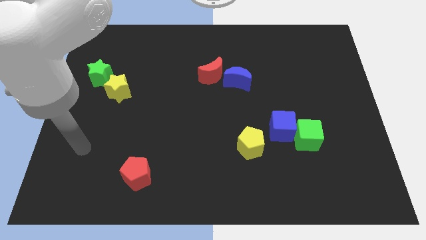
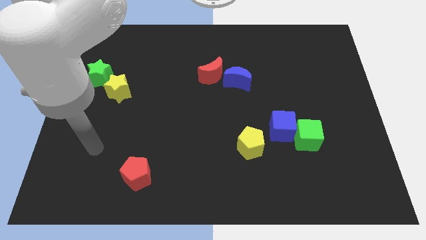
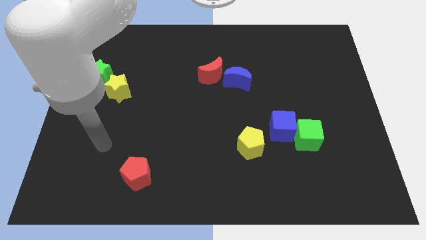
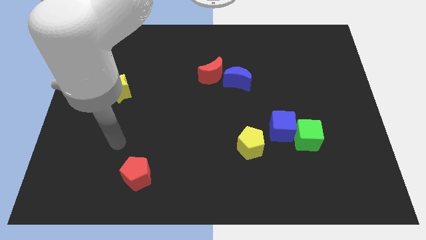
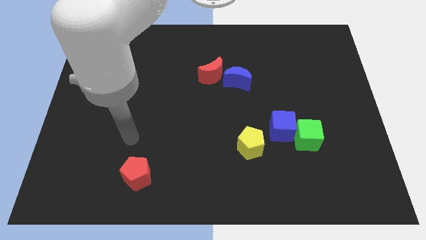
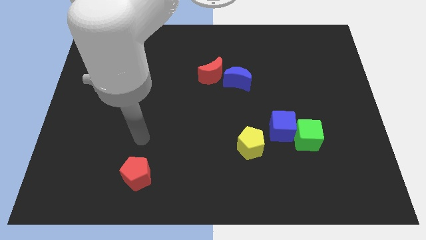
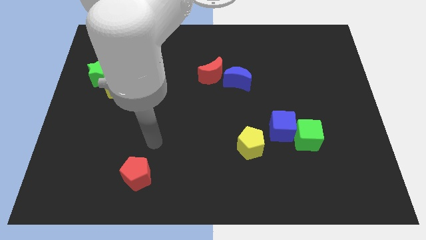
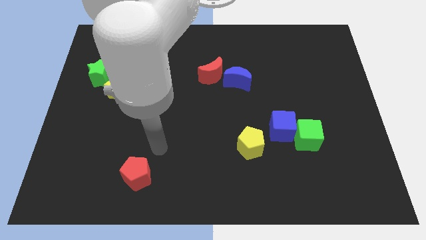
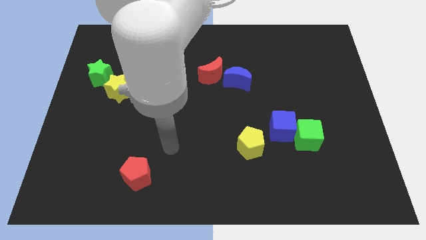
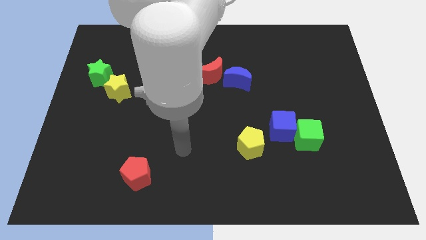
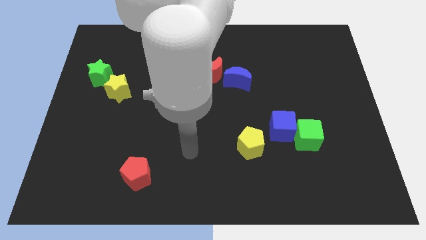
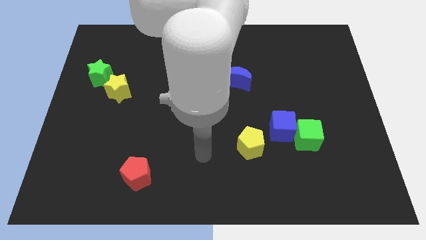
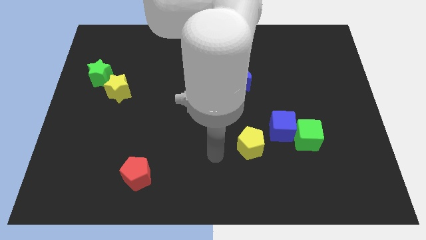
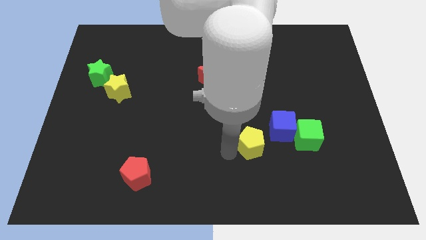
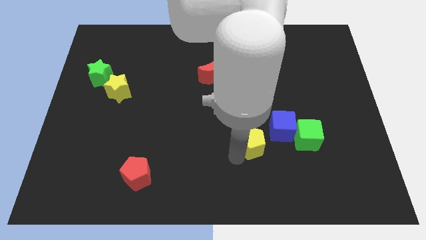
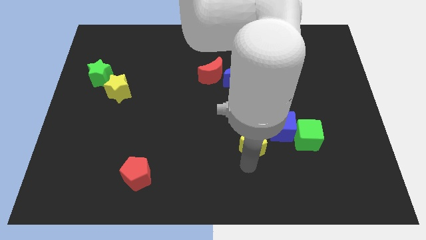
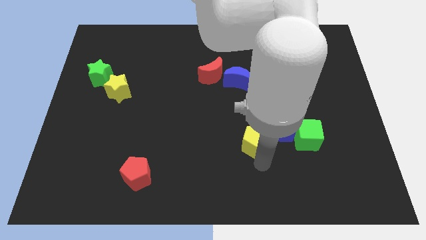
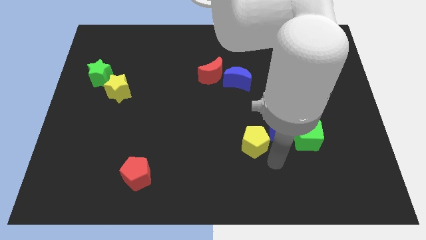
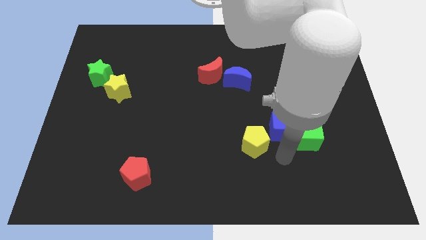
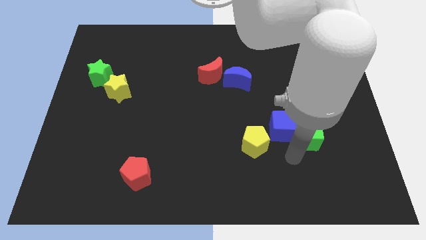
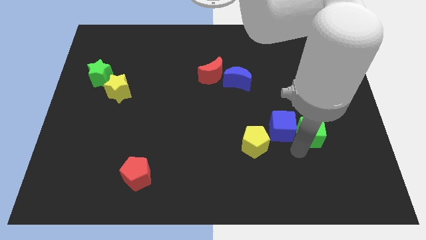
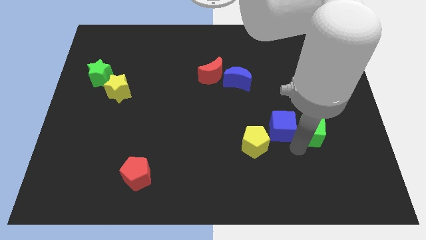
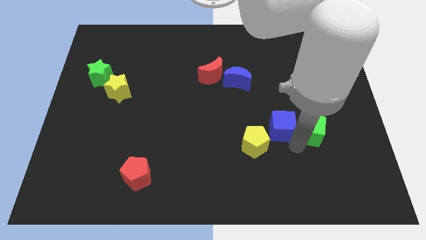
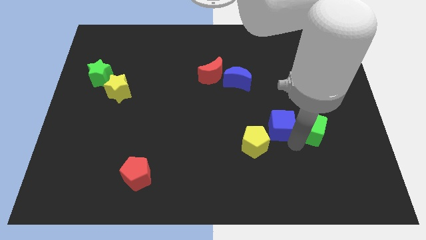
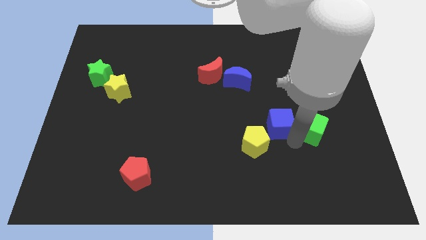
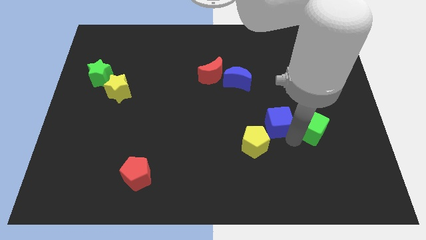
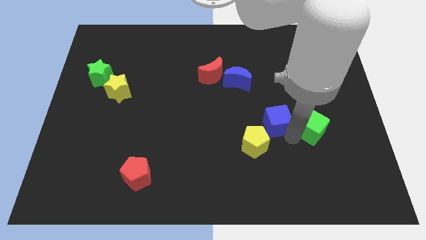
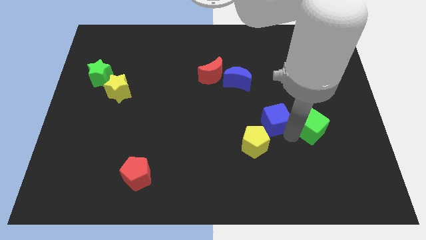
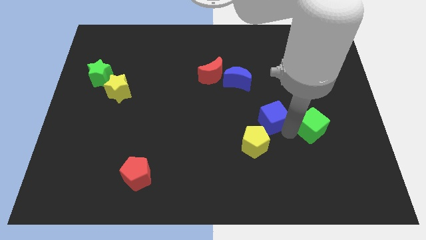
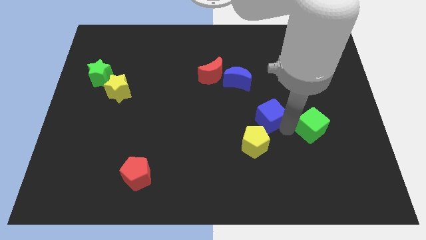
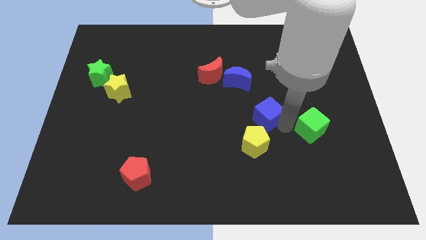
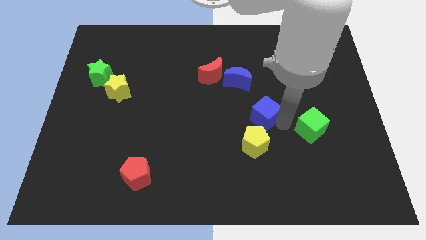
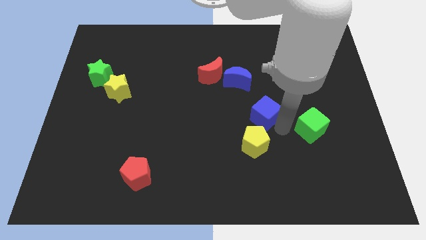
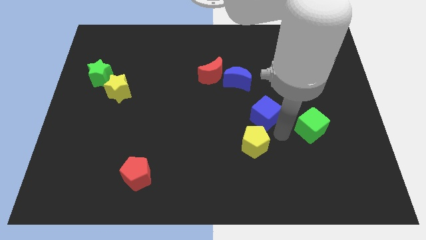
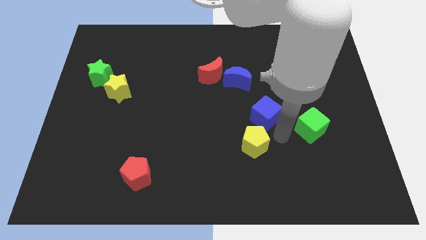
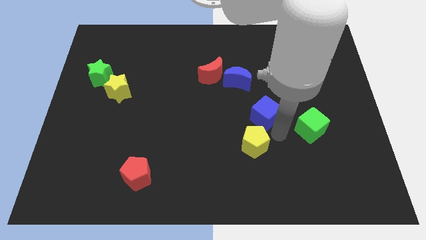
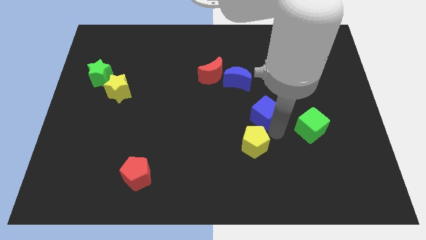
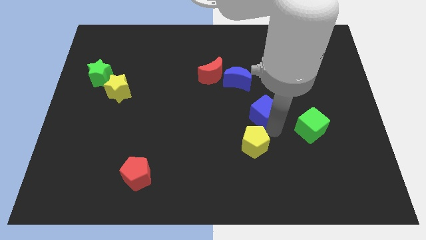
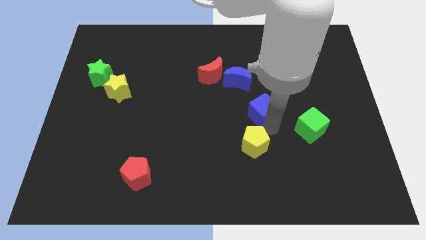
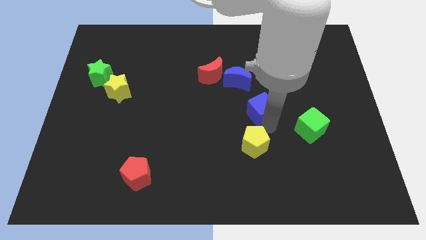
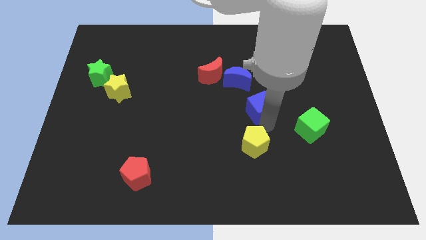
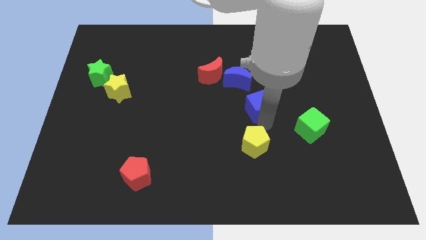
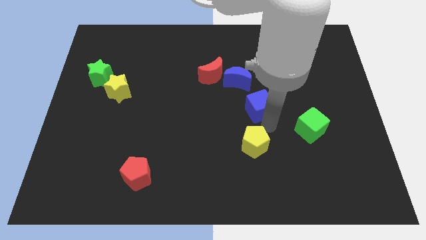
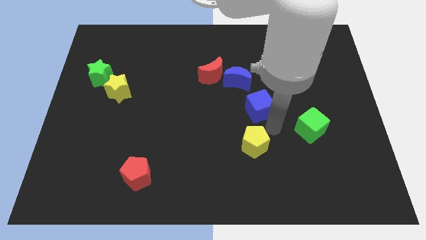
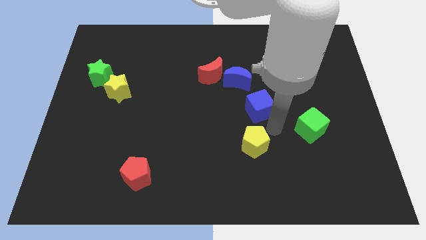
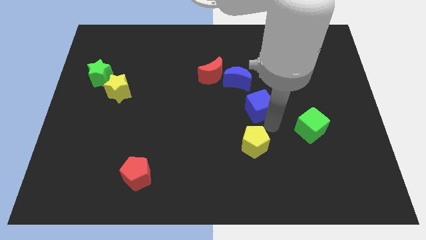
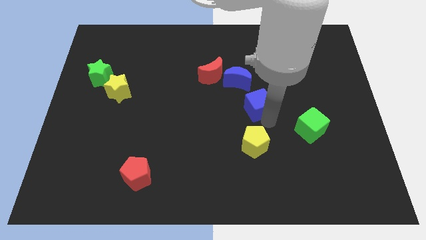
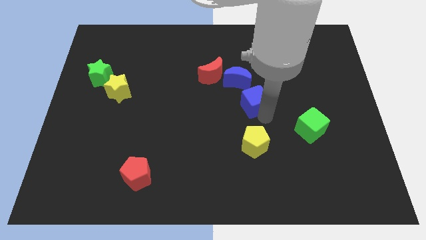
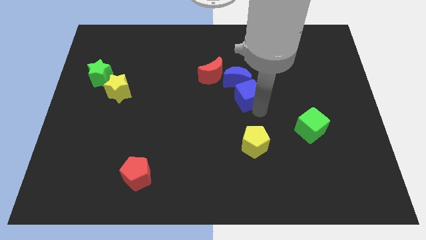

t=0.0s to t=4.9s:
push the blue cube next to the blue moon

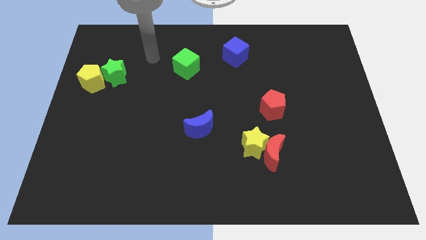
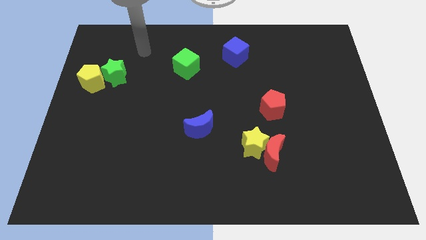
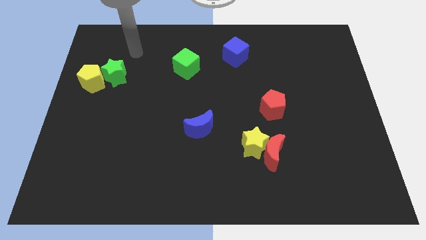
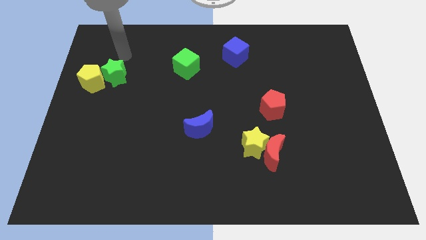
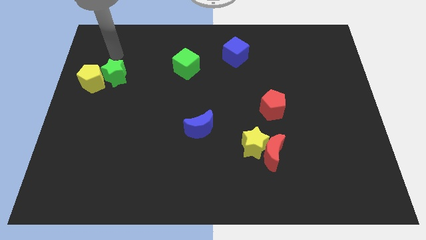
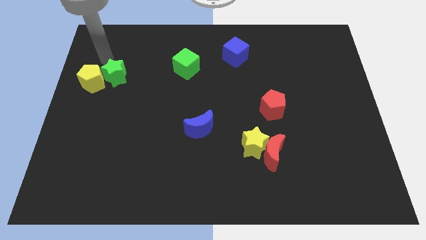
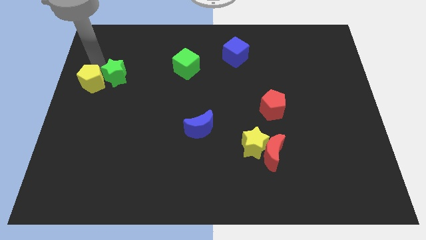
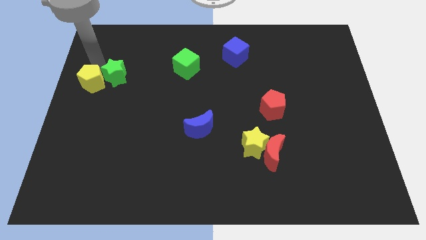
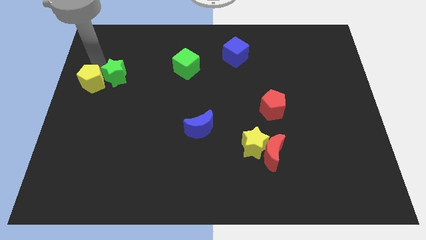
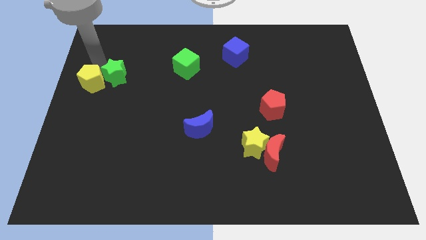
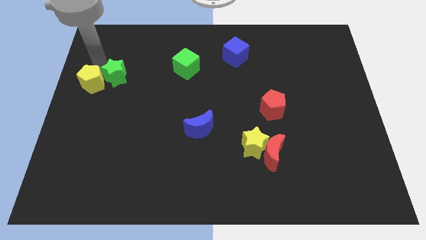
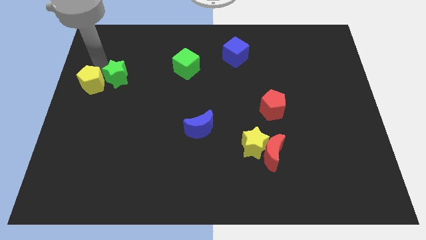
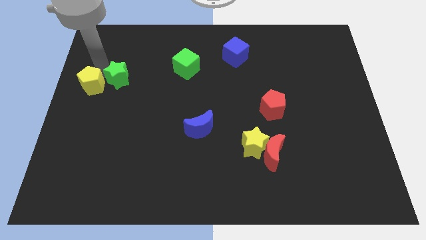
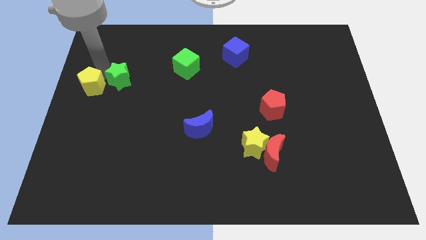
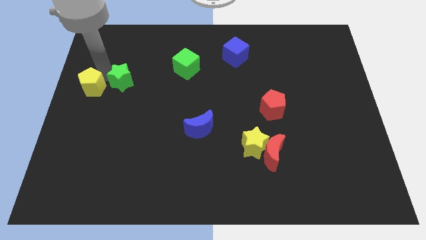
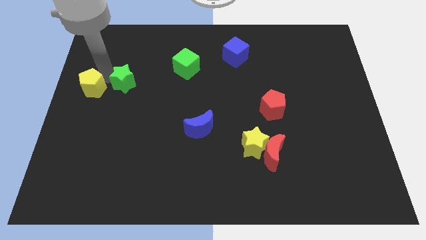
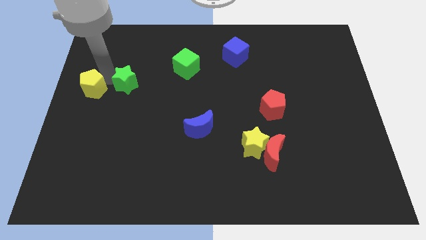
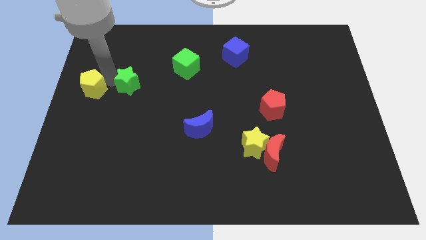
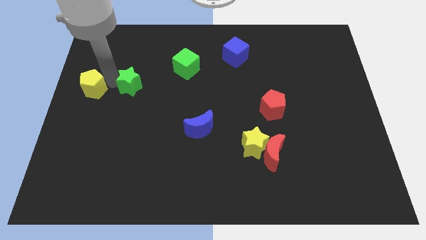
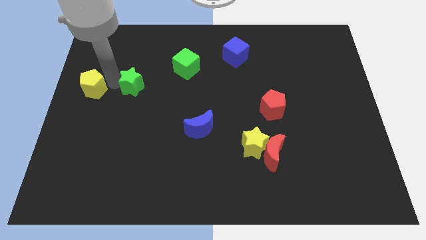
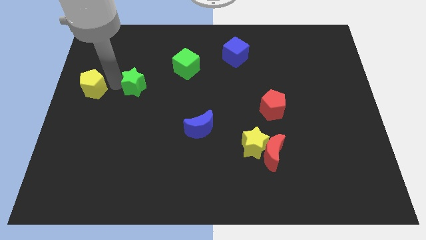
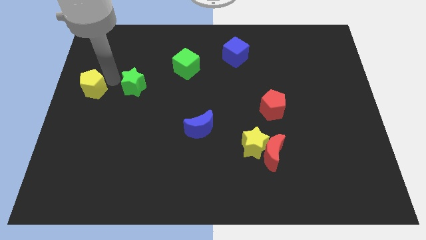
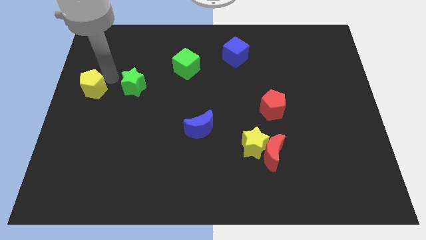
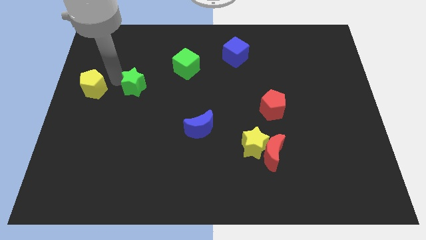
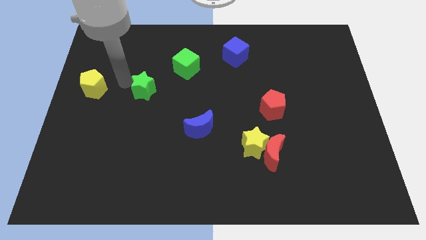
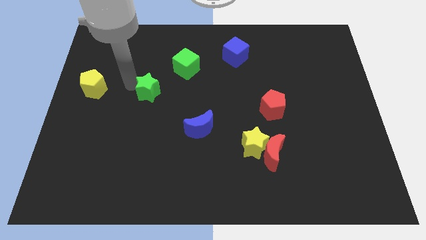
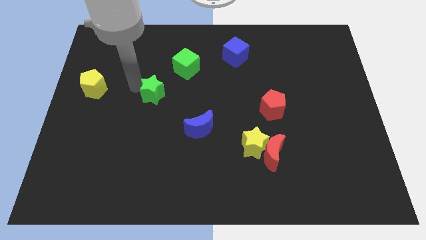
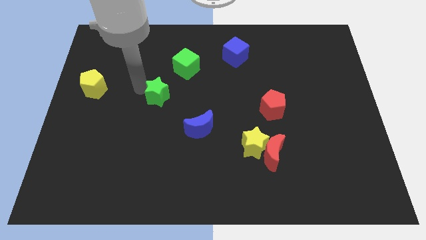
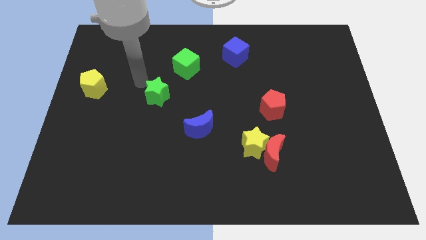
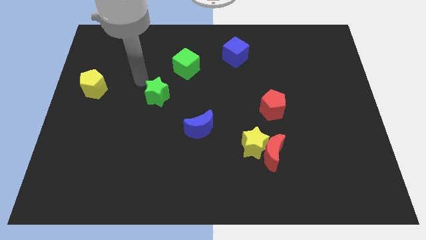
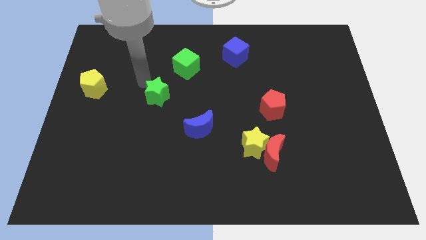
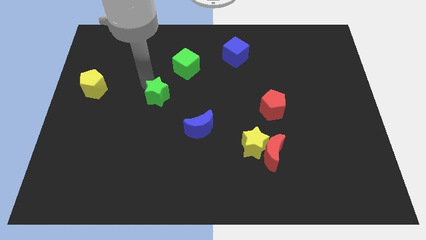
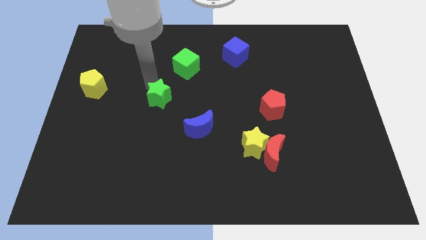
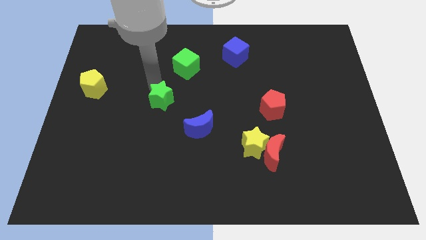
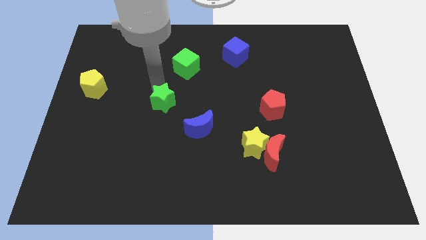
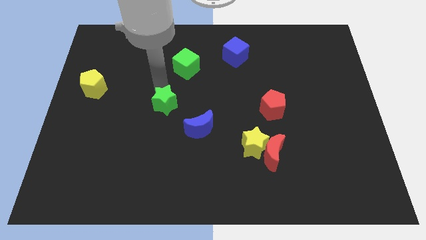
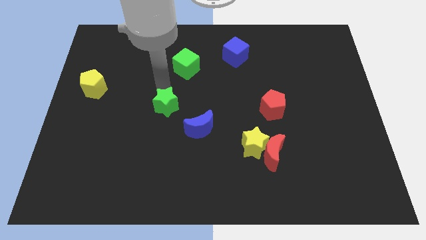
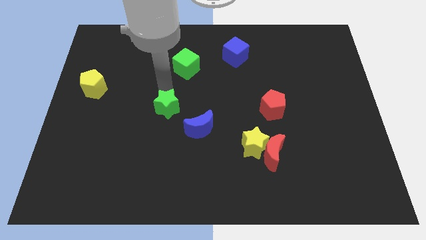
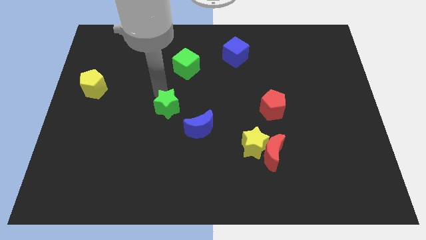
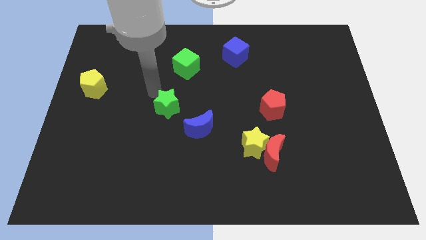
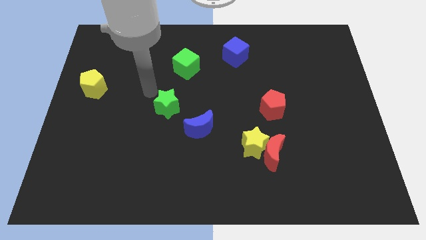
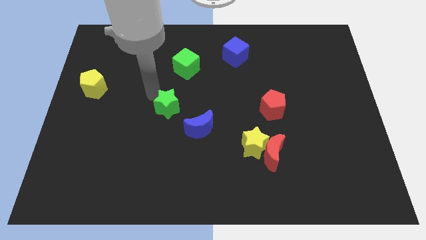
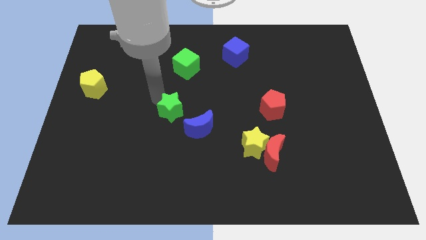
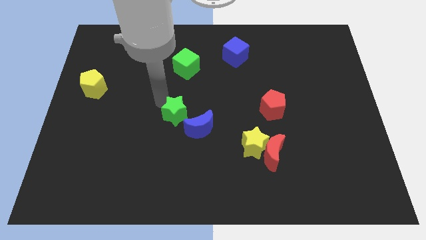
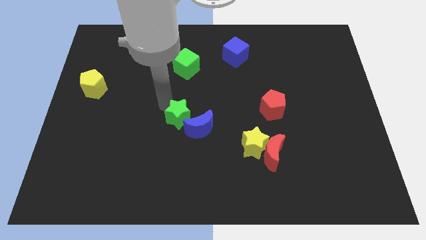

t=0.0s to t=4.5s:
slide the green star next to the blue moon
